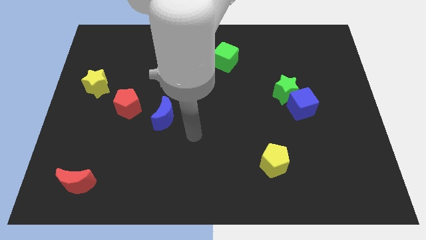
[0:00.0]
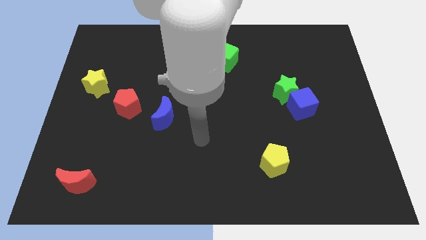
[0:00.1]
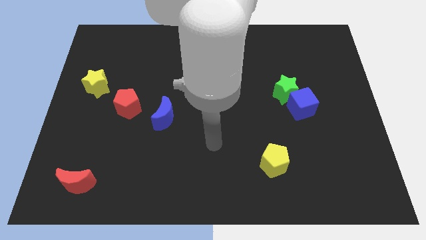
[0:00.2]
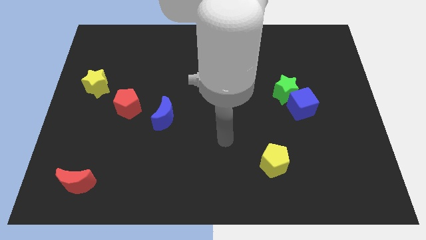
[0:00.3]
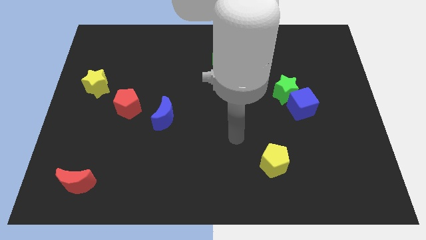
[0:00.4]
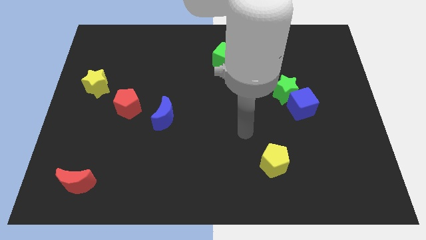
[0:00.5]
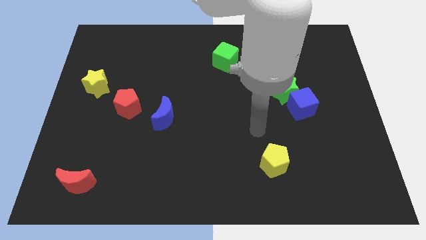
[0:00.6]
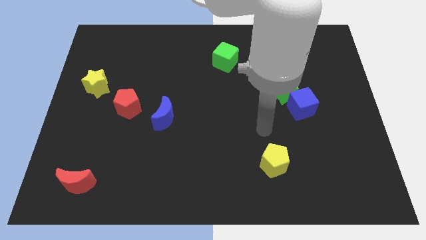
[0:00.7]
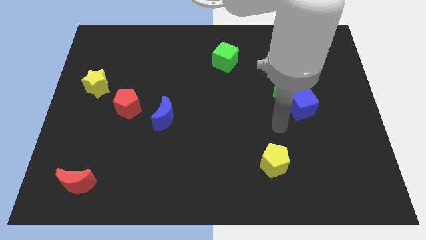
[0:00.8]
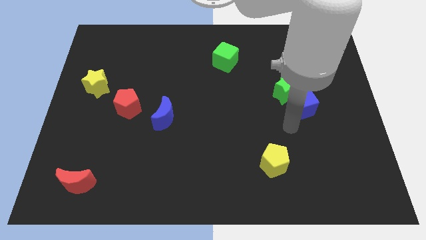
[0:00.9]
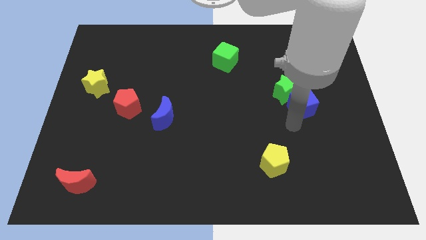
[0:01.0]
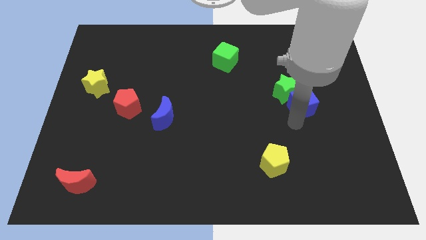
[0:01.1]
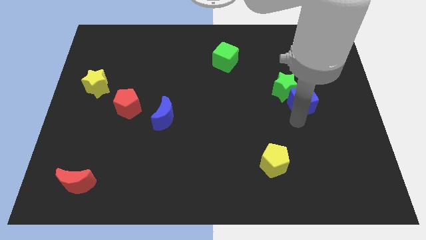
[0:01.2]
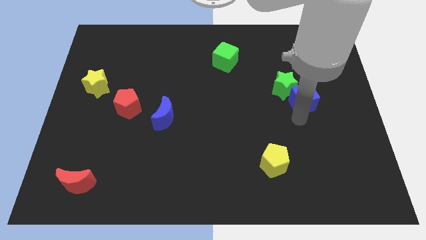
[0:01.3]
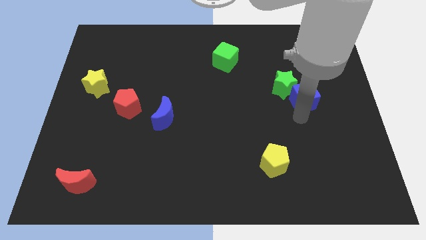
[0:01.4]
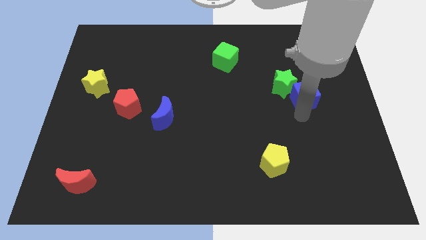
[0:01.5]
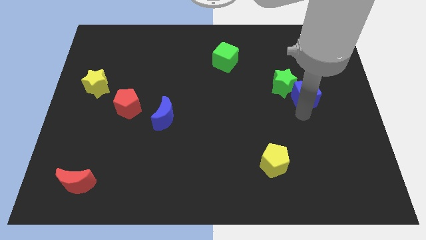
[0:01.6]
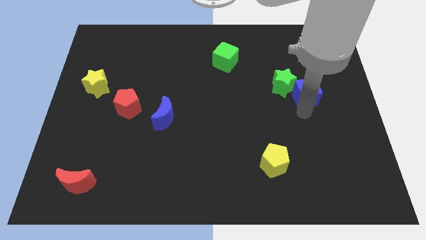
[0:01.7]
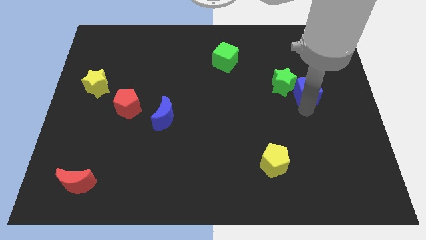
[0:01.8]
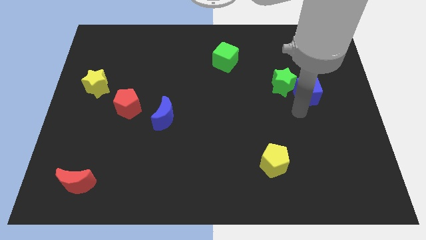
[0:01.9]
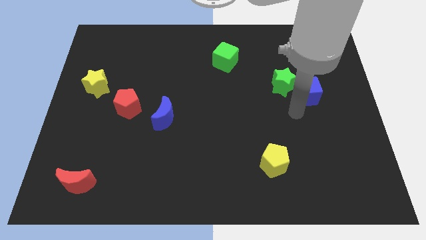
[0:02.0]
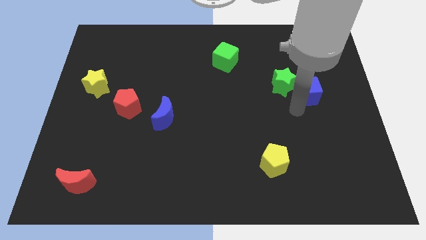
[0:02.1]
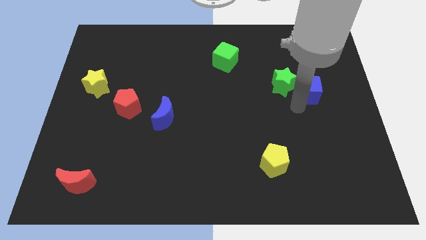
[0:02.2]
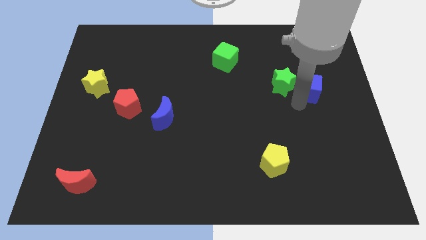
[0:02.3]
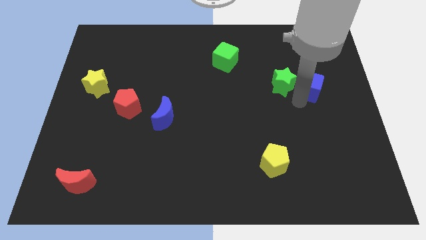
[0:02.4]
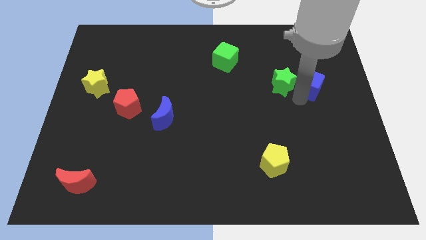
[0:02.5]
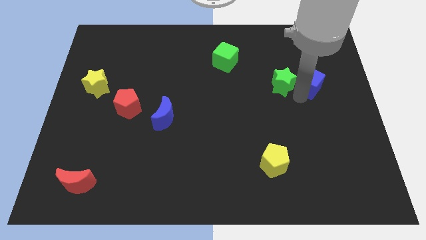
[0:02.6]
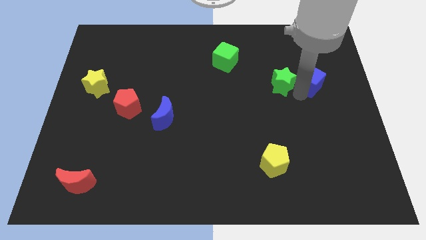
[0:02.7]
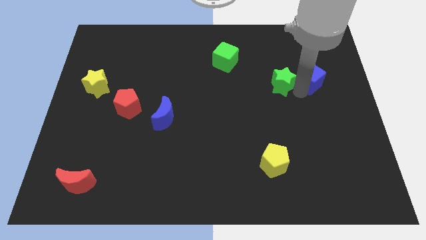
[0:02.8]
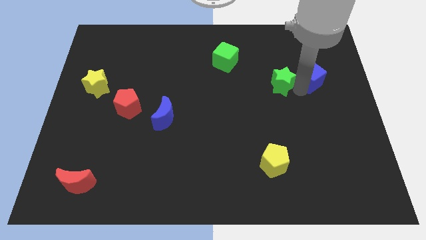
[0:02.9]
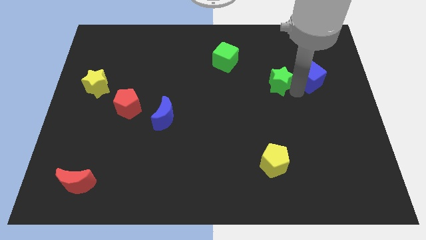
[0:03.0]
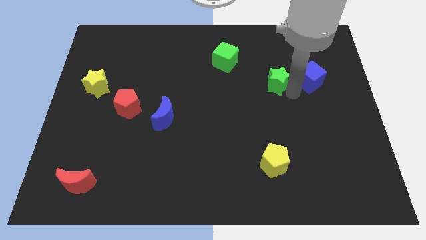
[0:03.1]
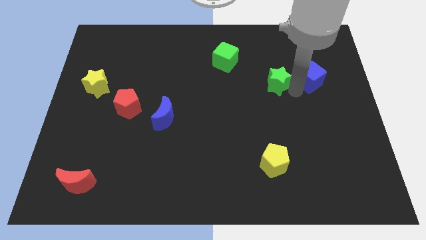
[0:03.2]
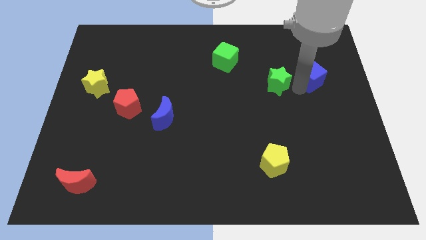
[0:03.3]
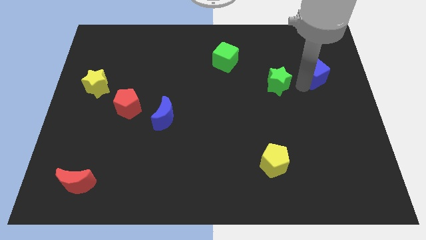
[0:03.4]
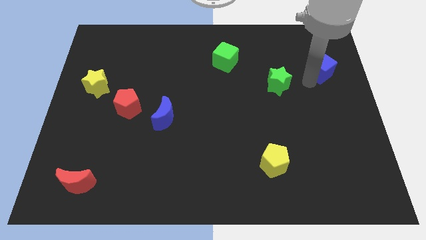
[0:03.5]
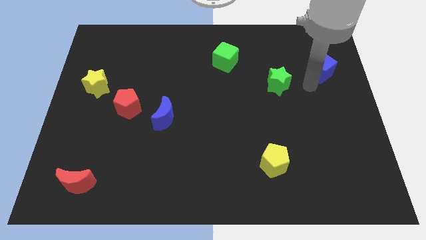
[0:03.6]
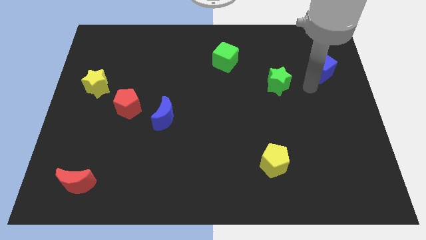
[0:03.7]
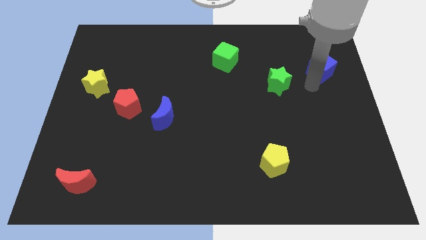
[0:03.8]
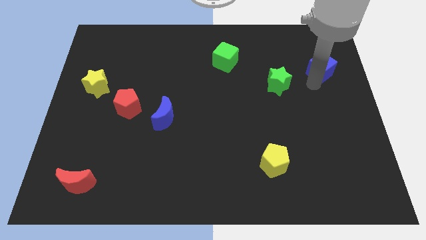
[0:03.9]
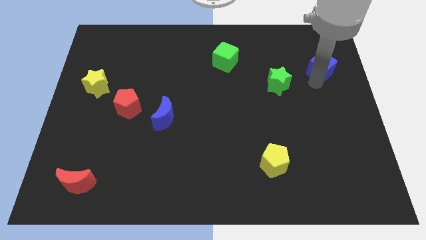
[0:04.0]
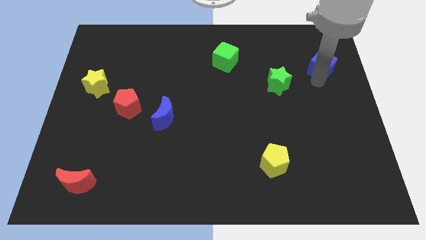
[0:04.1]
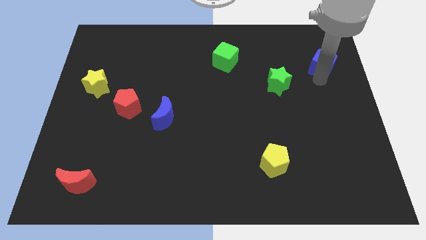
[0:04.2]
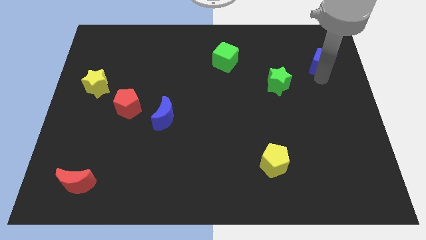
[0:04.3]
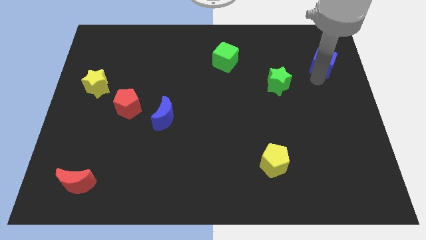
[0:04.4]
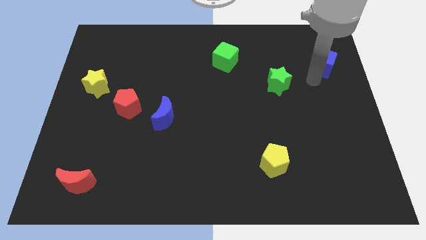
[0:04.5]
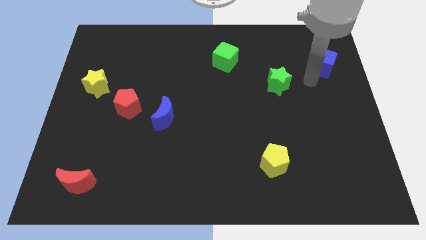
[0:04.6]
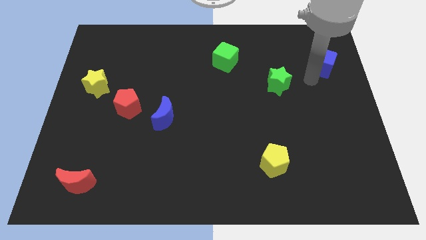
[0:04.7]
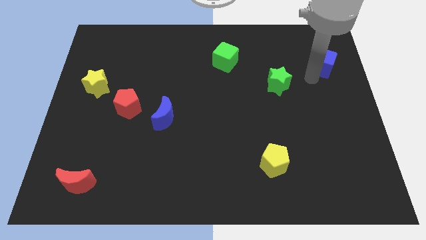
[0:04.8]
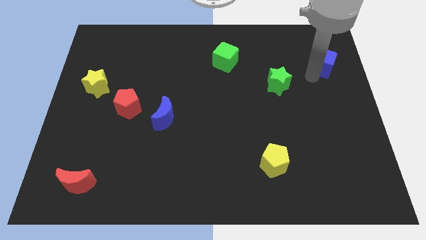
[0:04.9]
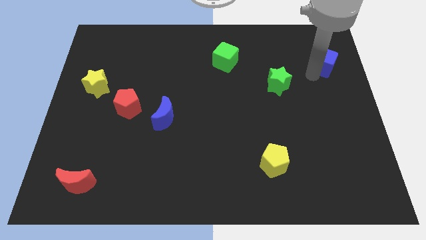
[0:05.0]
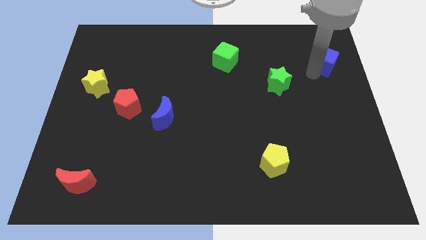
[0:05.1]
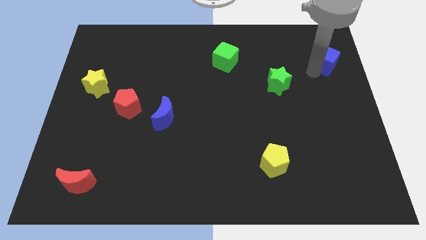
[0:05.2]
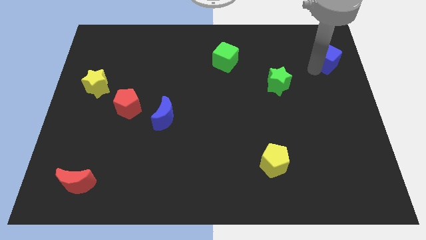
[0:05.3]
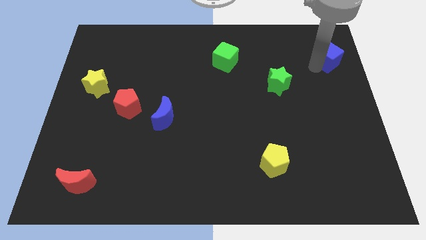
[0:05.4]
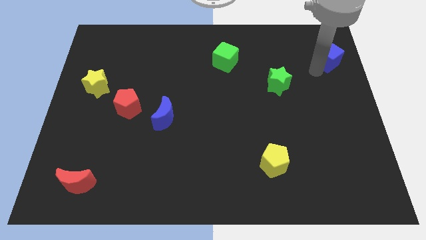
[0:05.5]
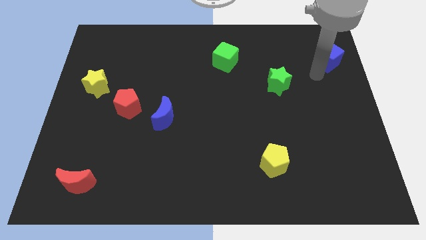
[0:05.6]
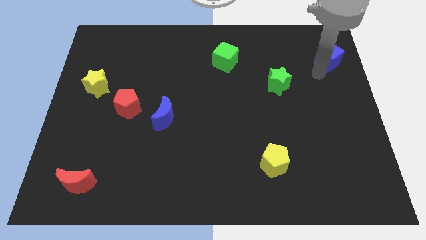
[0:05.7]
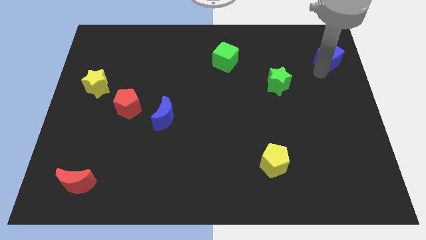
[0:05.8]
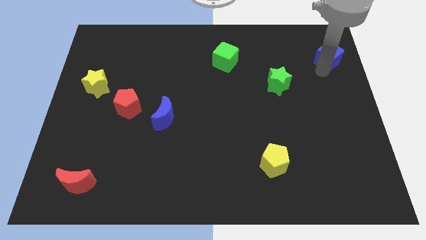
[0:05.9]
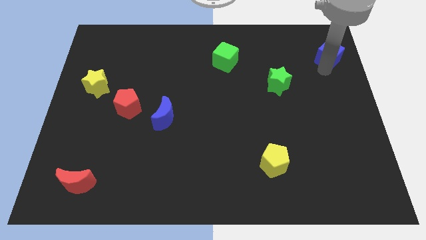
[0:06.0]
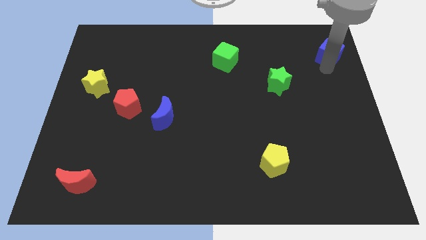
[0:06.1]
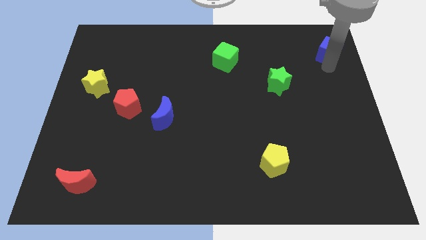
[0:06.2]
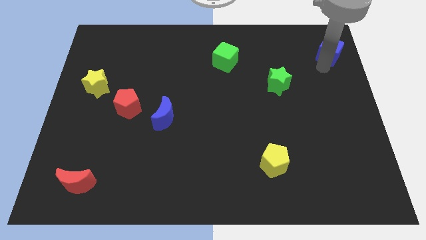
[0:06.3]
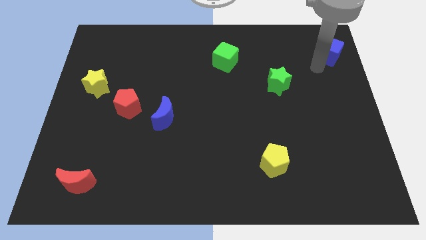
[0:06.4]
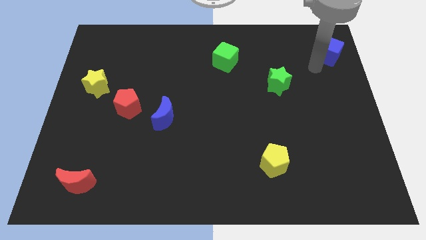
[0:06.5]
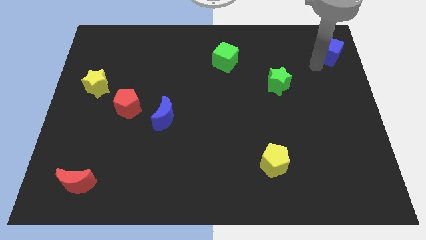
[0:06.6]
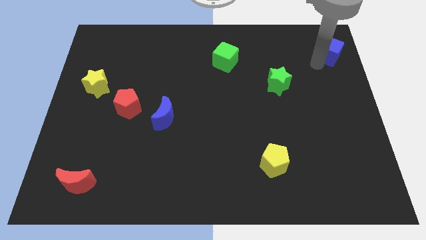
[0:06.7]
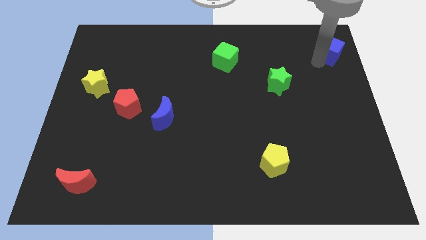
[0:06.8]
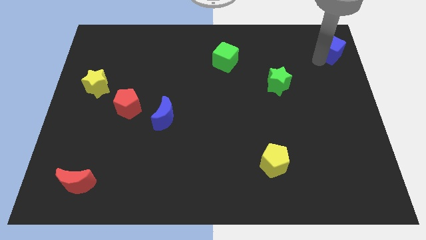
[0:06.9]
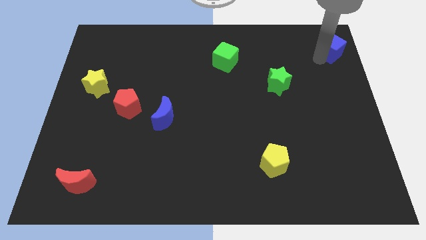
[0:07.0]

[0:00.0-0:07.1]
move the blue cube to the top right
